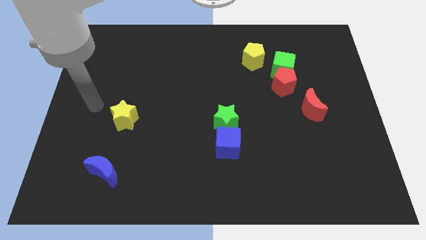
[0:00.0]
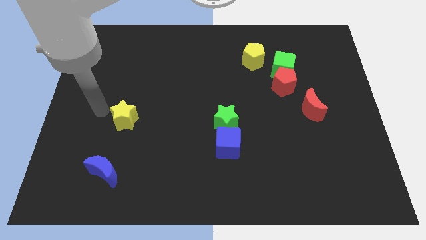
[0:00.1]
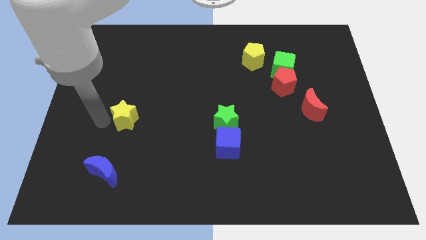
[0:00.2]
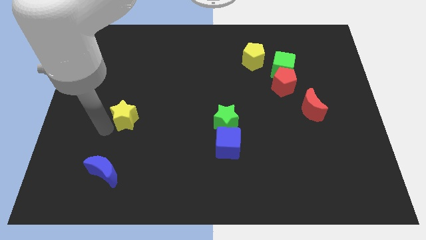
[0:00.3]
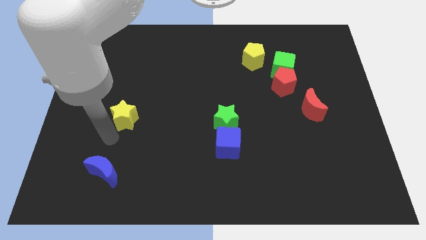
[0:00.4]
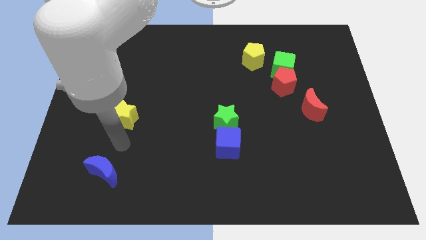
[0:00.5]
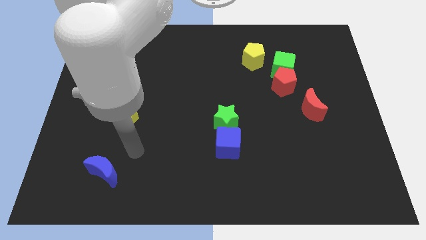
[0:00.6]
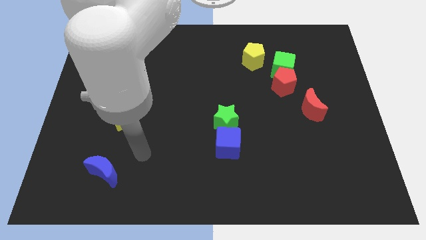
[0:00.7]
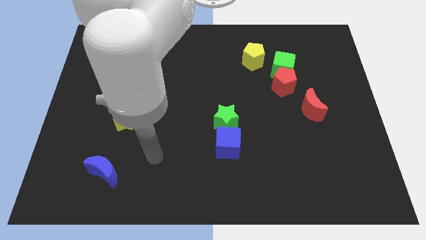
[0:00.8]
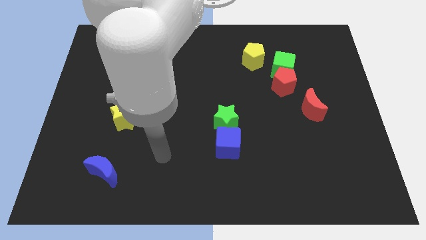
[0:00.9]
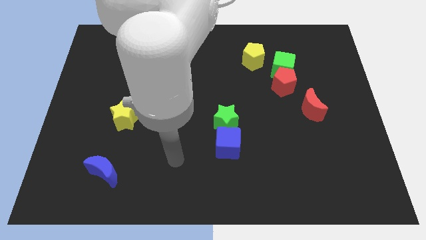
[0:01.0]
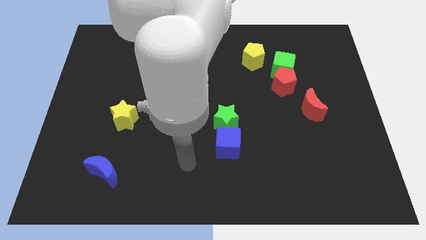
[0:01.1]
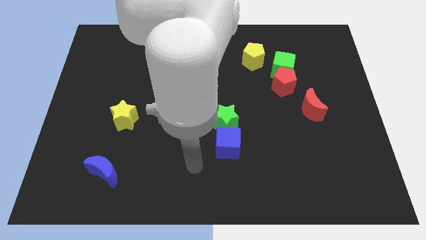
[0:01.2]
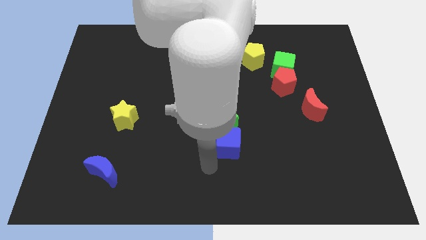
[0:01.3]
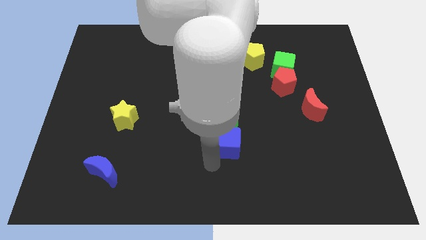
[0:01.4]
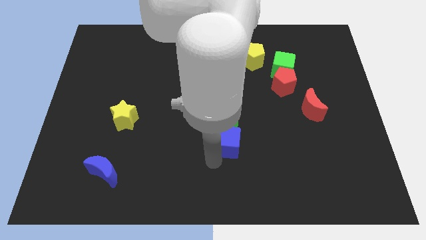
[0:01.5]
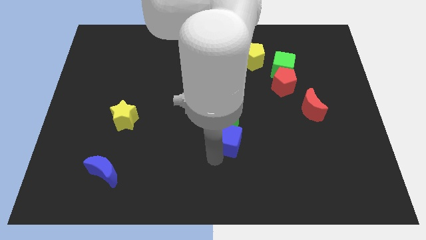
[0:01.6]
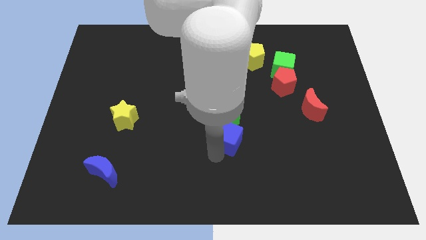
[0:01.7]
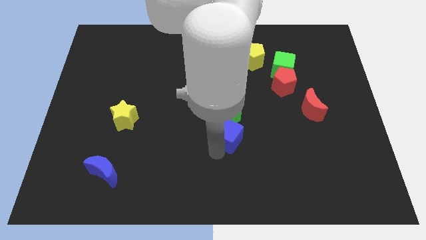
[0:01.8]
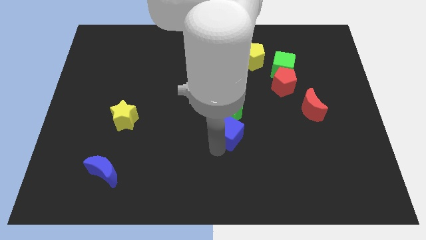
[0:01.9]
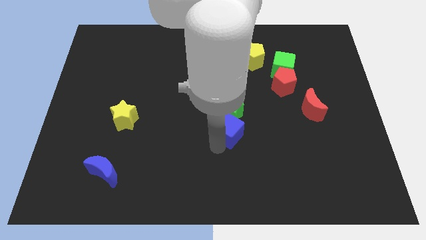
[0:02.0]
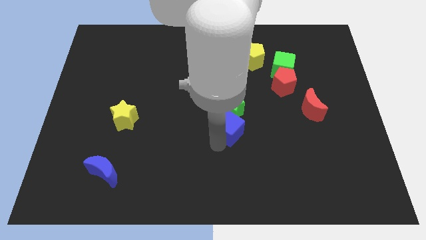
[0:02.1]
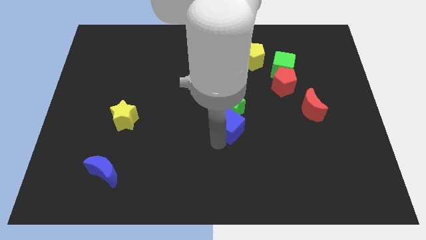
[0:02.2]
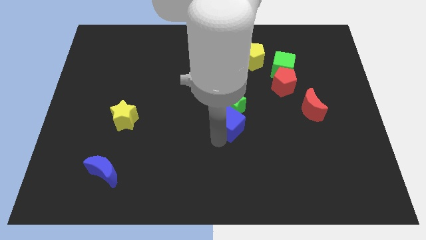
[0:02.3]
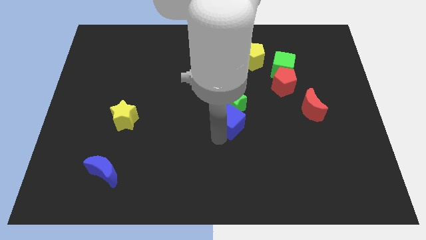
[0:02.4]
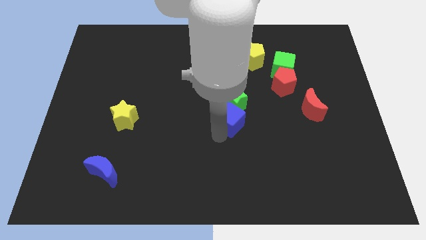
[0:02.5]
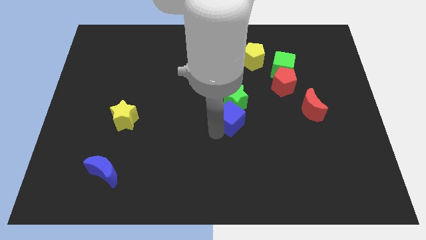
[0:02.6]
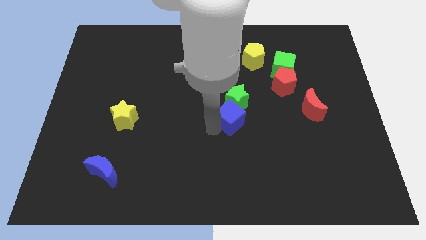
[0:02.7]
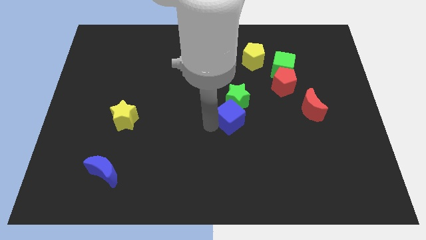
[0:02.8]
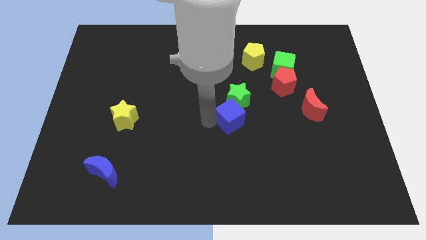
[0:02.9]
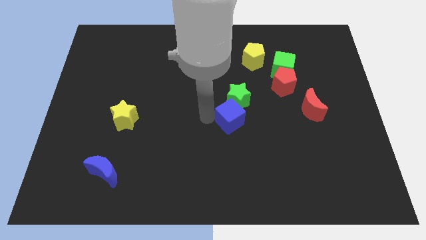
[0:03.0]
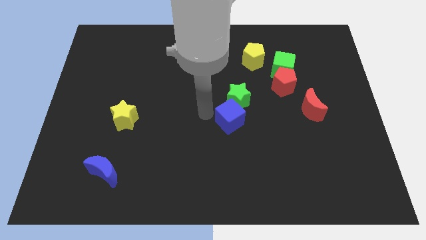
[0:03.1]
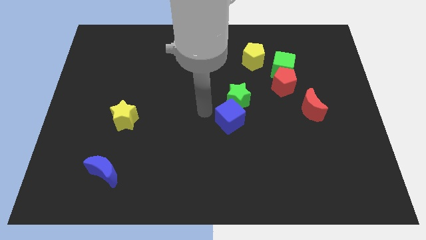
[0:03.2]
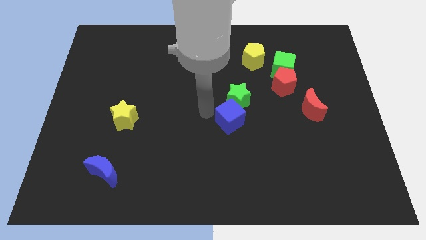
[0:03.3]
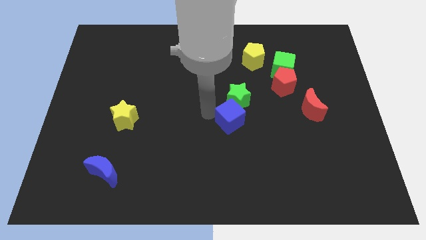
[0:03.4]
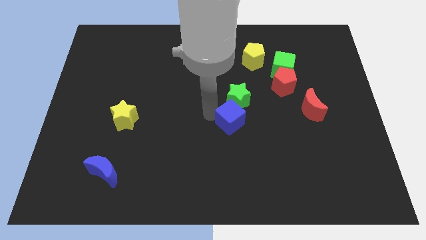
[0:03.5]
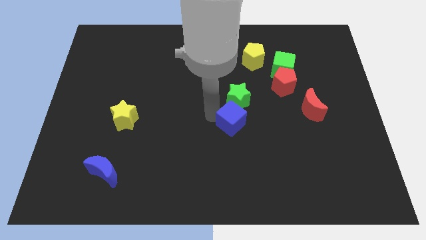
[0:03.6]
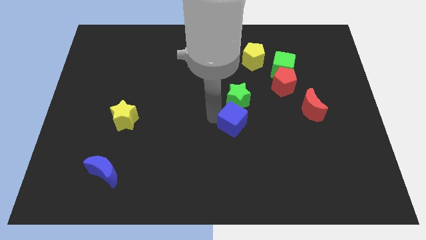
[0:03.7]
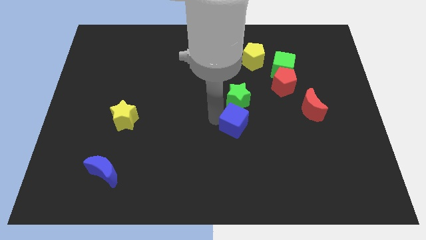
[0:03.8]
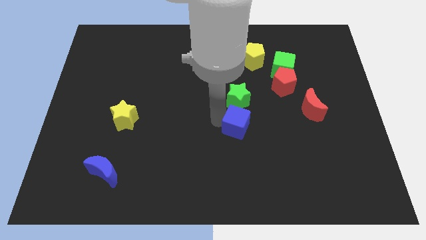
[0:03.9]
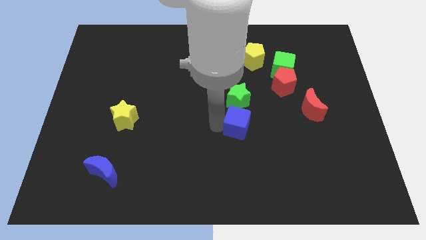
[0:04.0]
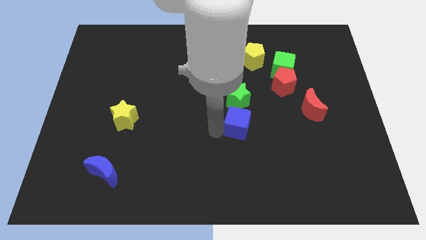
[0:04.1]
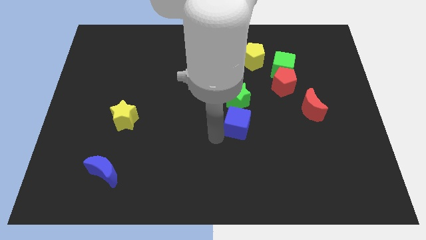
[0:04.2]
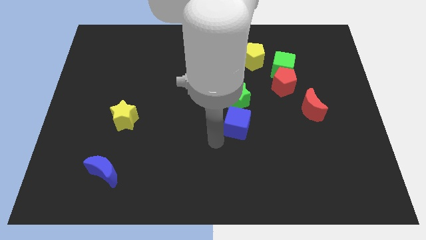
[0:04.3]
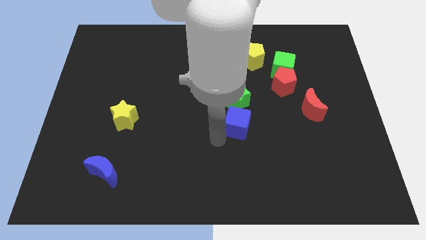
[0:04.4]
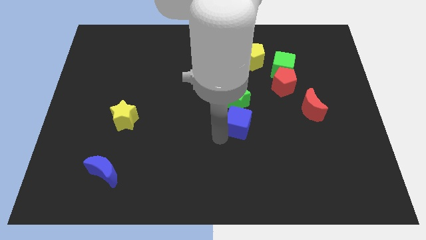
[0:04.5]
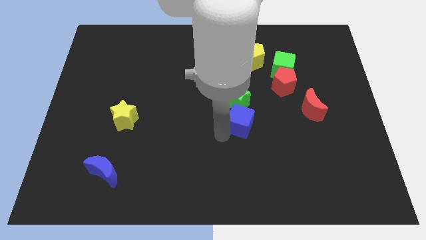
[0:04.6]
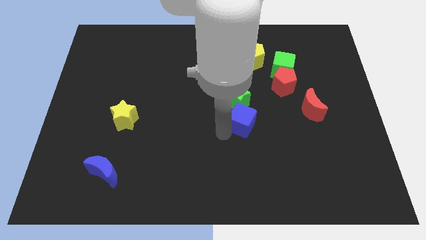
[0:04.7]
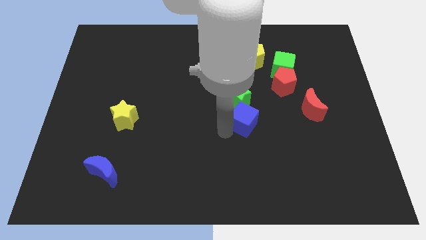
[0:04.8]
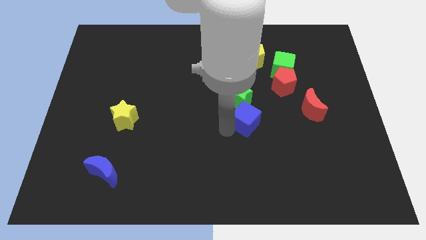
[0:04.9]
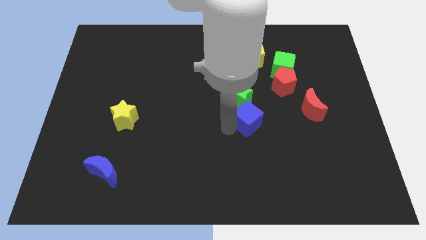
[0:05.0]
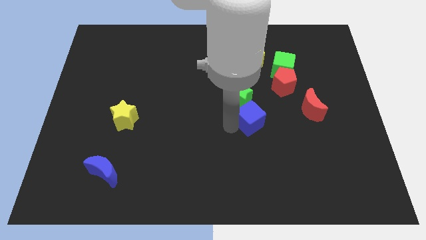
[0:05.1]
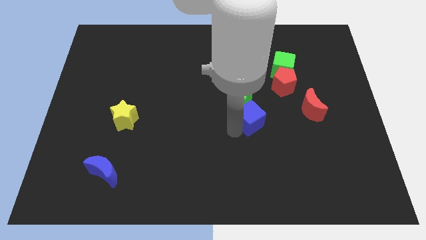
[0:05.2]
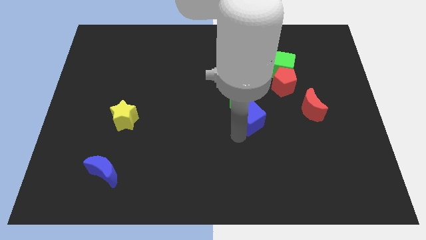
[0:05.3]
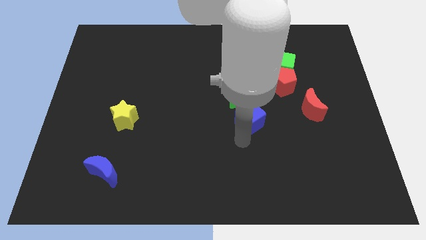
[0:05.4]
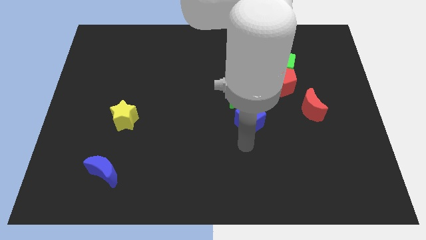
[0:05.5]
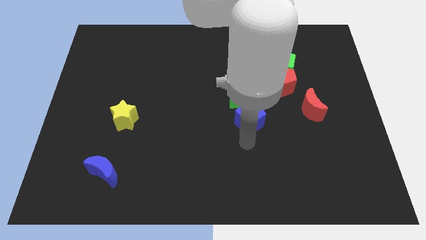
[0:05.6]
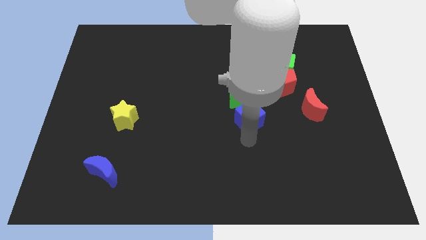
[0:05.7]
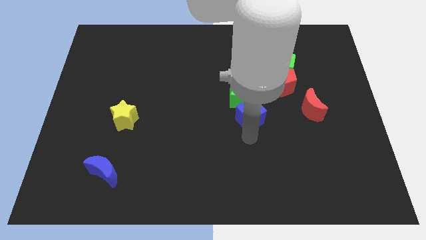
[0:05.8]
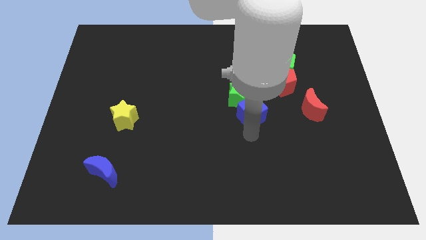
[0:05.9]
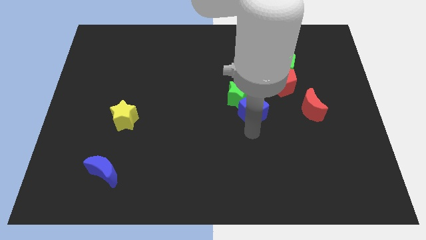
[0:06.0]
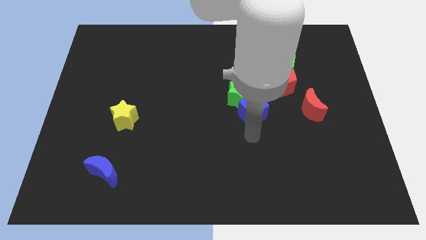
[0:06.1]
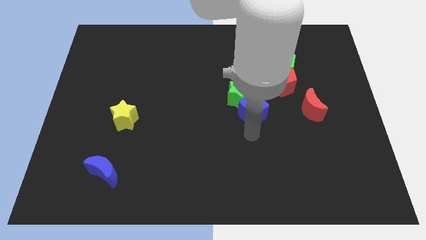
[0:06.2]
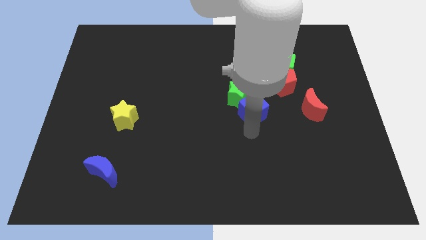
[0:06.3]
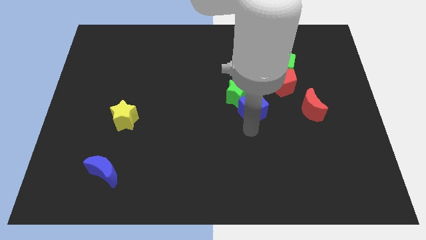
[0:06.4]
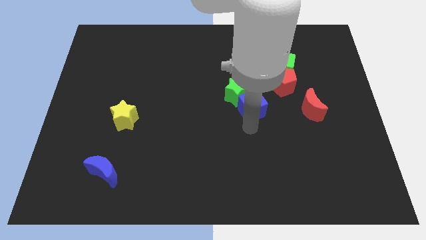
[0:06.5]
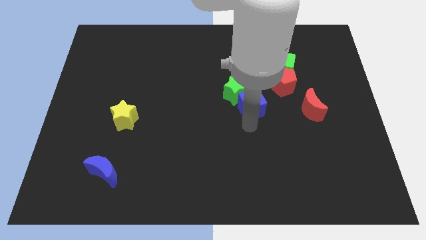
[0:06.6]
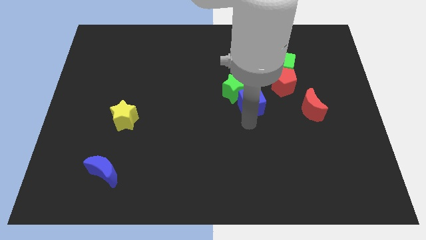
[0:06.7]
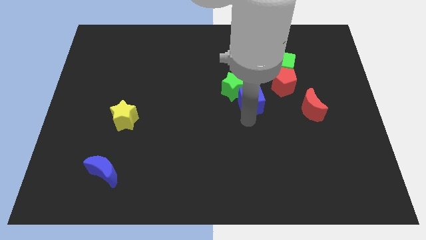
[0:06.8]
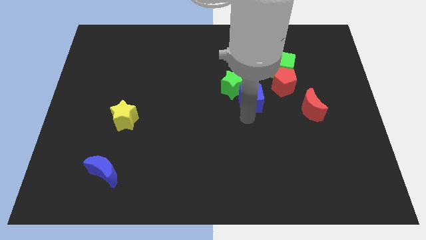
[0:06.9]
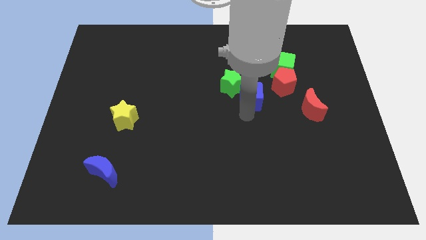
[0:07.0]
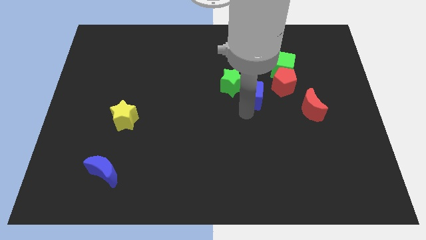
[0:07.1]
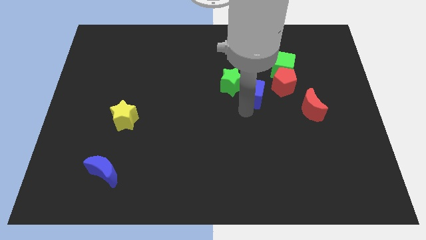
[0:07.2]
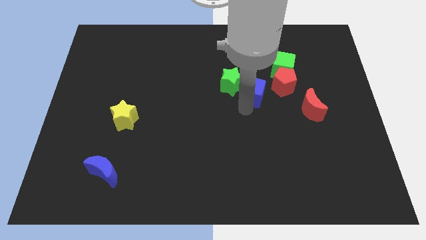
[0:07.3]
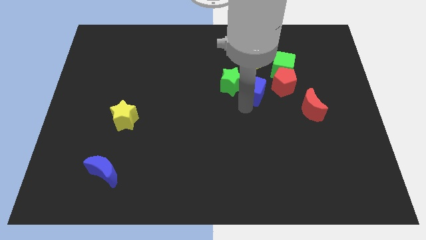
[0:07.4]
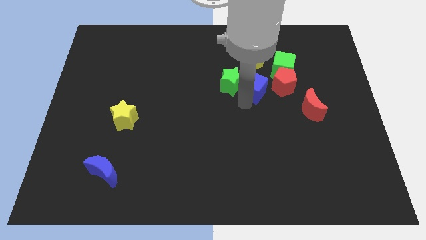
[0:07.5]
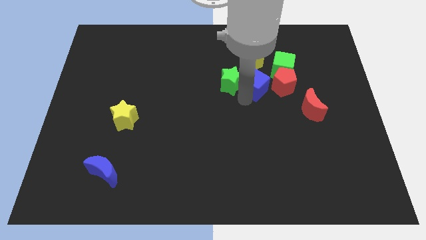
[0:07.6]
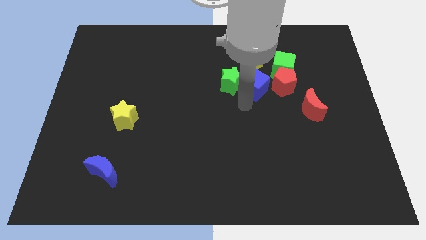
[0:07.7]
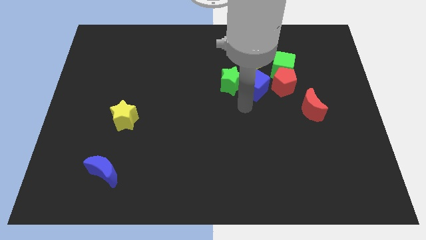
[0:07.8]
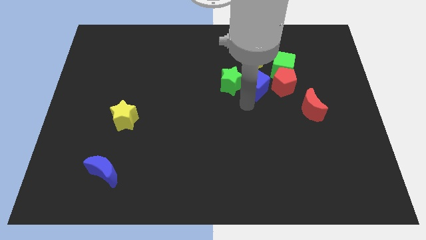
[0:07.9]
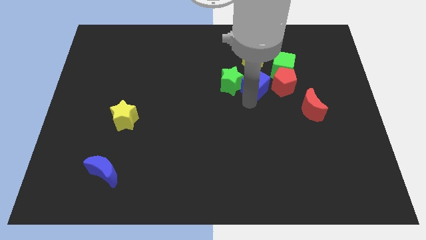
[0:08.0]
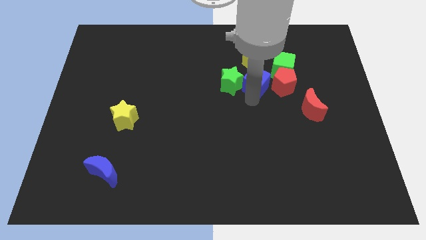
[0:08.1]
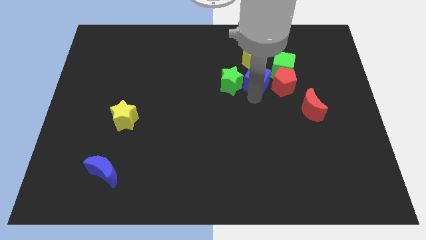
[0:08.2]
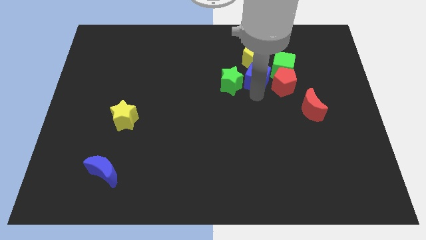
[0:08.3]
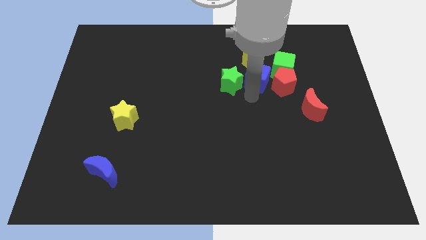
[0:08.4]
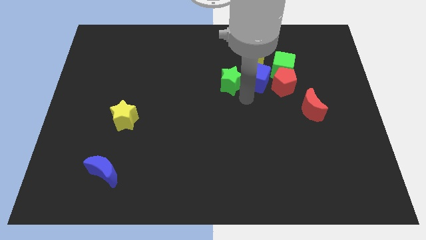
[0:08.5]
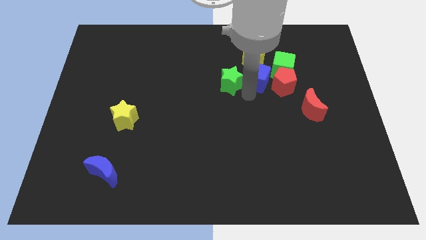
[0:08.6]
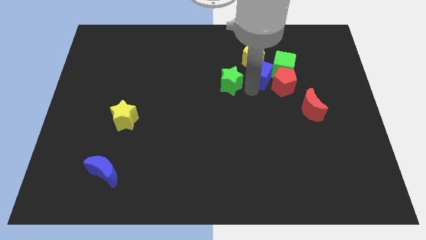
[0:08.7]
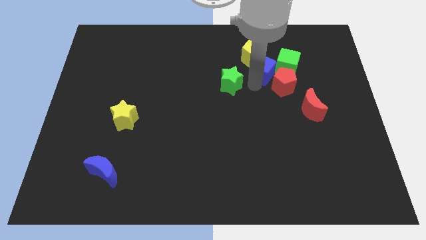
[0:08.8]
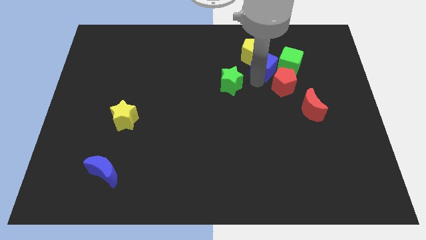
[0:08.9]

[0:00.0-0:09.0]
move the blue cube above the red pentagon
